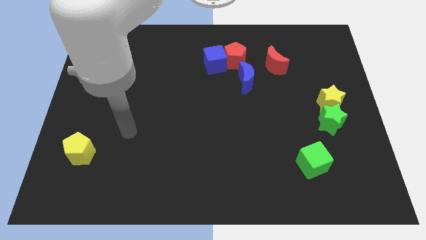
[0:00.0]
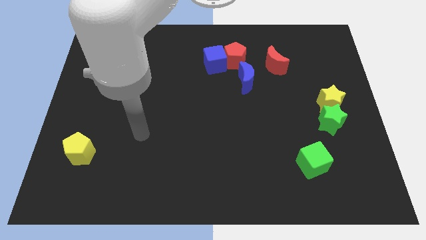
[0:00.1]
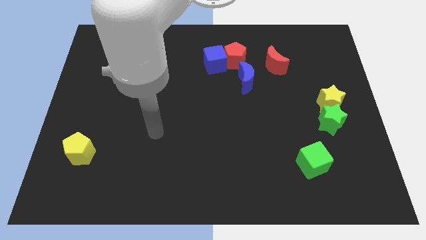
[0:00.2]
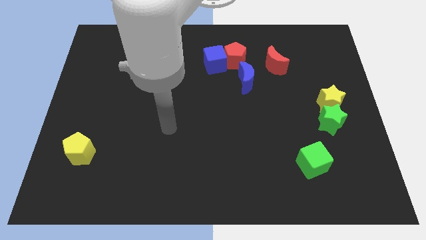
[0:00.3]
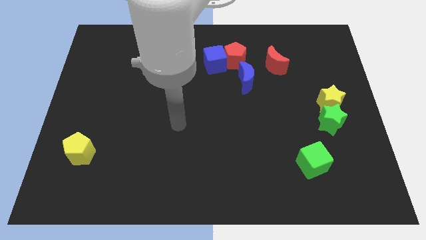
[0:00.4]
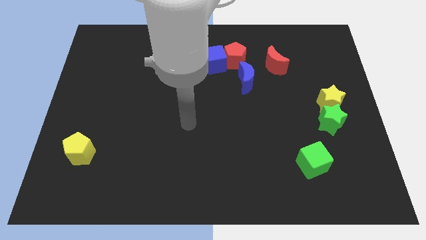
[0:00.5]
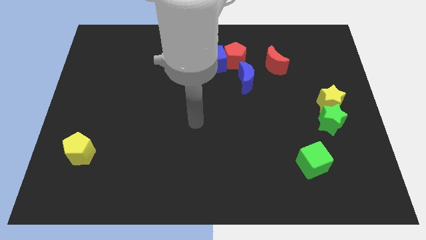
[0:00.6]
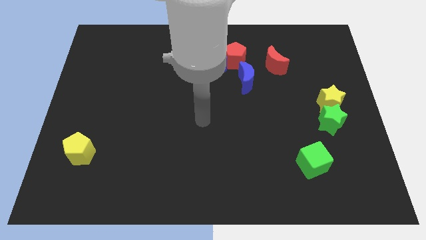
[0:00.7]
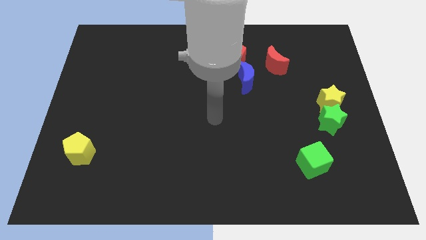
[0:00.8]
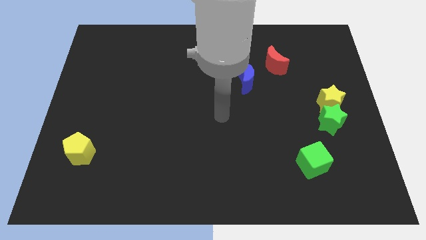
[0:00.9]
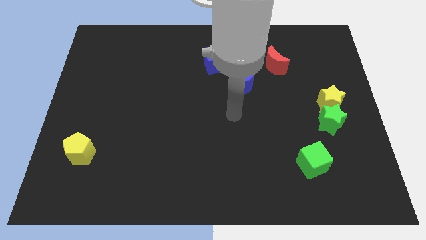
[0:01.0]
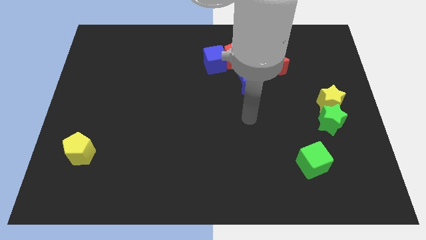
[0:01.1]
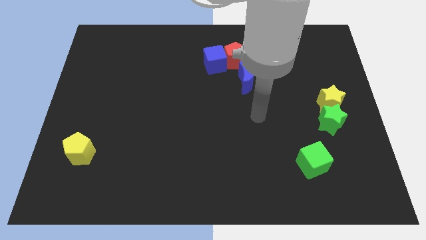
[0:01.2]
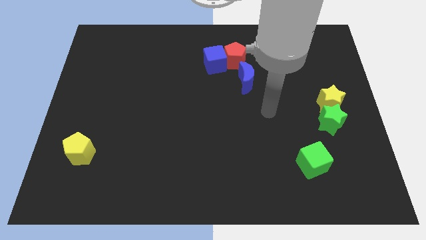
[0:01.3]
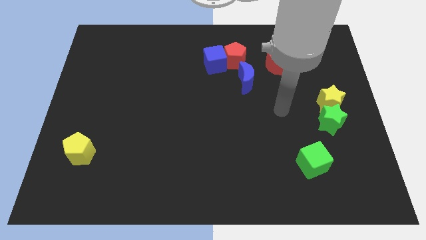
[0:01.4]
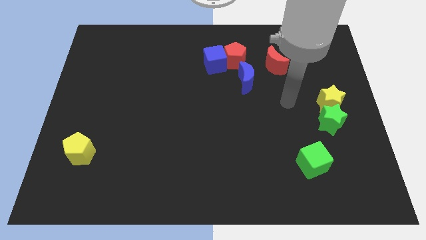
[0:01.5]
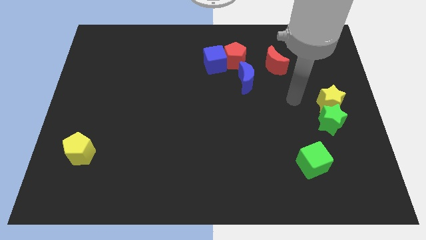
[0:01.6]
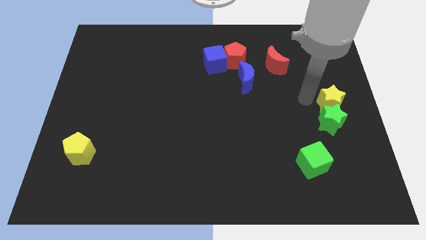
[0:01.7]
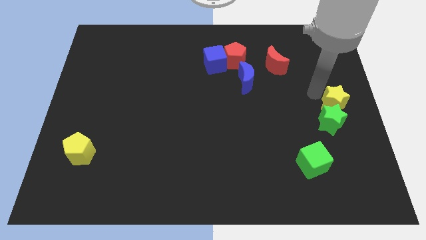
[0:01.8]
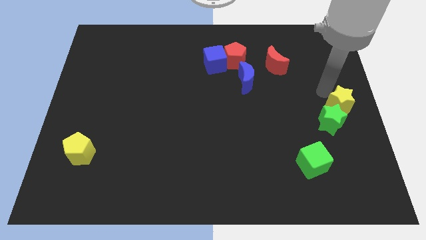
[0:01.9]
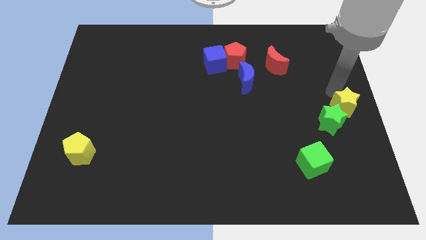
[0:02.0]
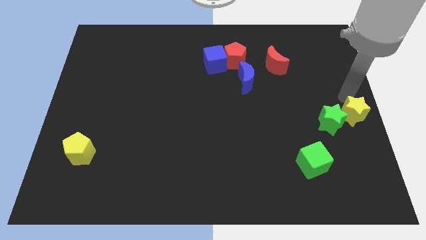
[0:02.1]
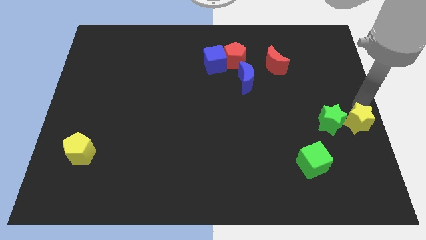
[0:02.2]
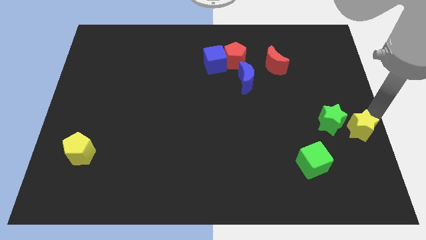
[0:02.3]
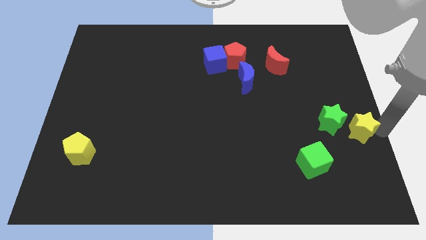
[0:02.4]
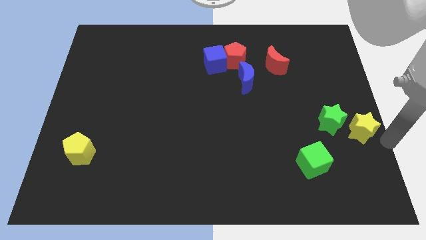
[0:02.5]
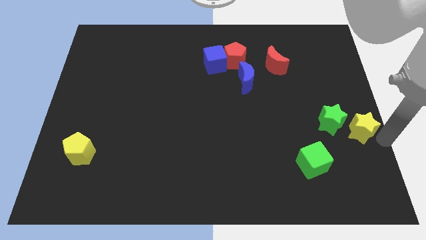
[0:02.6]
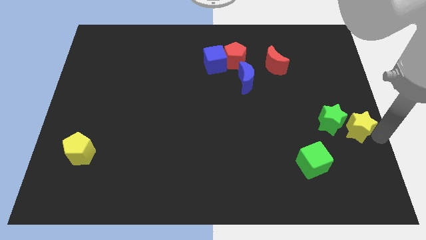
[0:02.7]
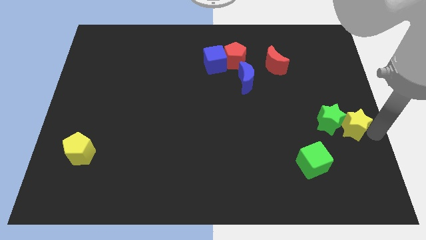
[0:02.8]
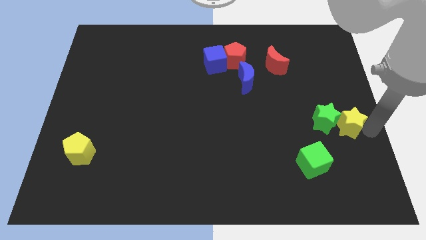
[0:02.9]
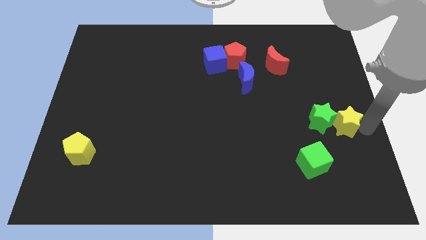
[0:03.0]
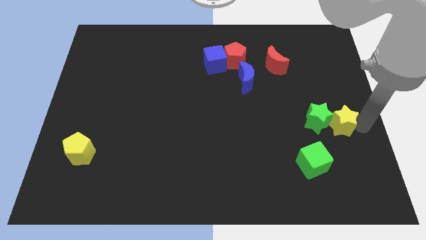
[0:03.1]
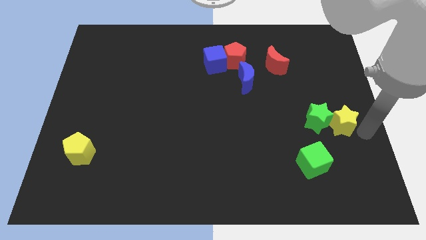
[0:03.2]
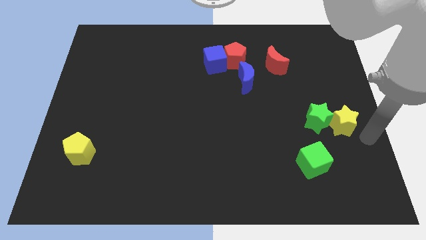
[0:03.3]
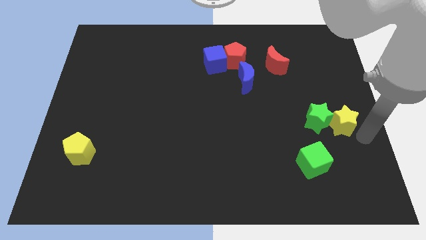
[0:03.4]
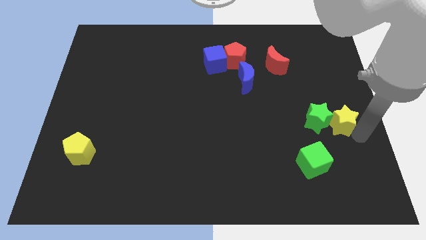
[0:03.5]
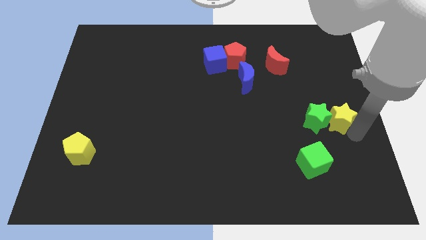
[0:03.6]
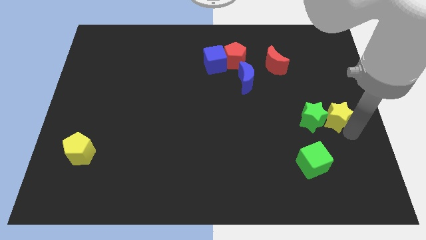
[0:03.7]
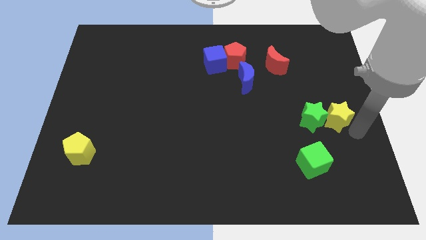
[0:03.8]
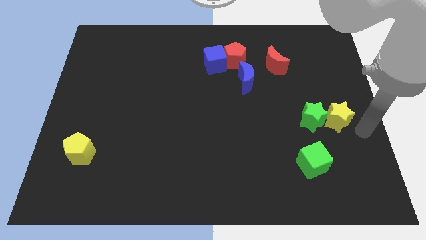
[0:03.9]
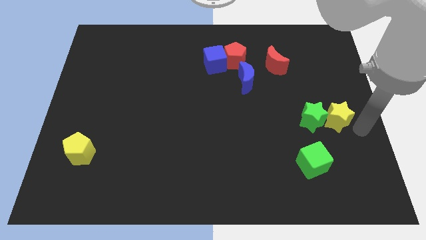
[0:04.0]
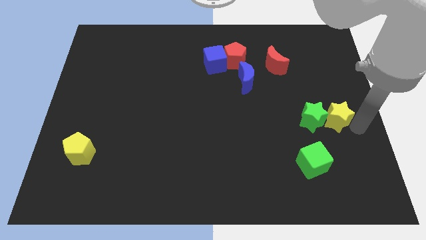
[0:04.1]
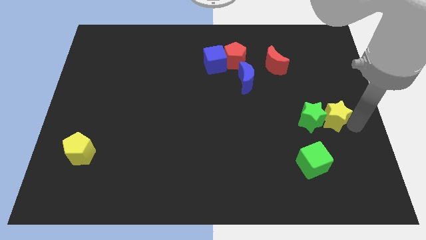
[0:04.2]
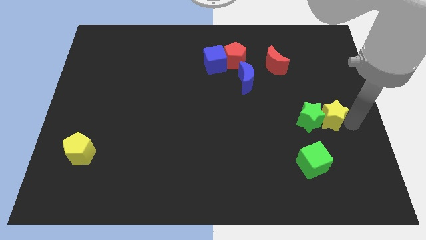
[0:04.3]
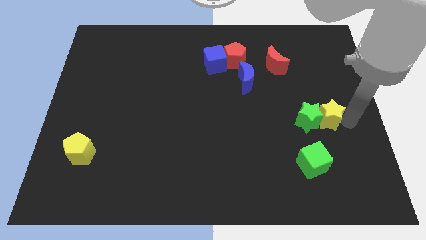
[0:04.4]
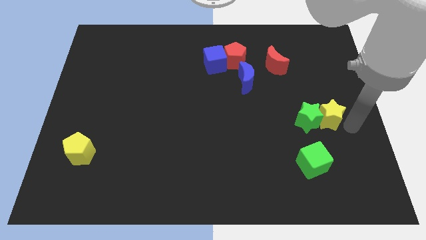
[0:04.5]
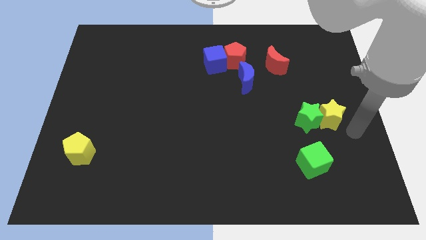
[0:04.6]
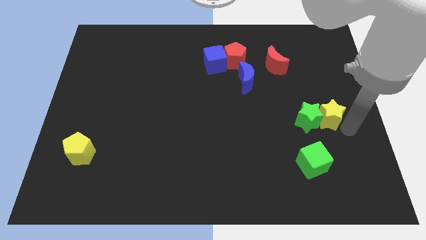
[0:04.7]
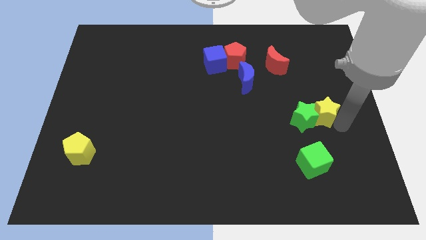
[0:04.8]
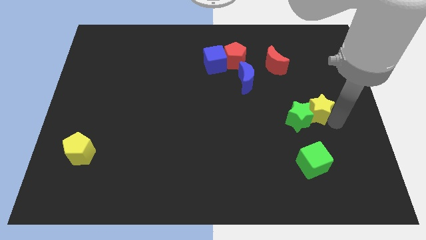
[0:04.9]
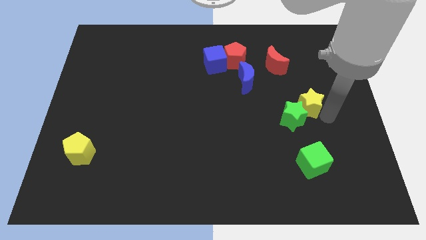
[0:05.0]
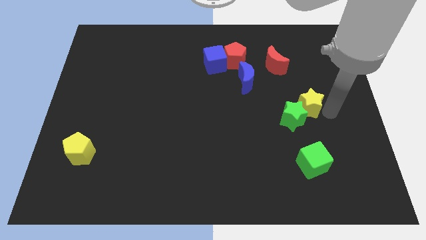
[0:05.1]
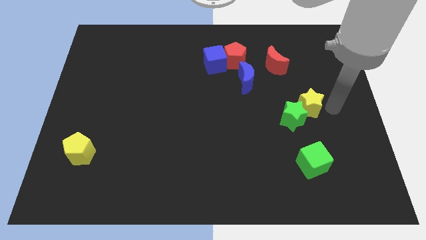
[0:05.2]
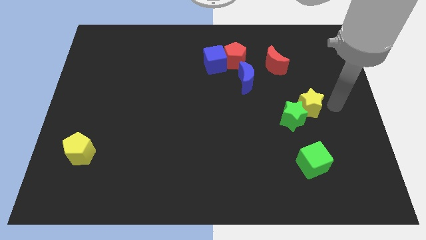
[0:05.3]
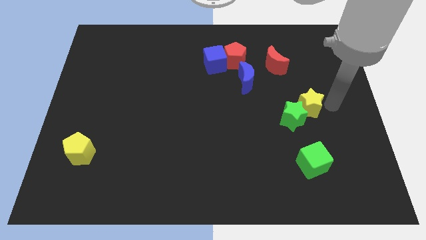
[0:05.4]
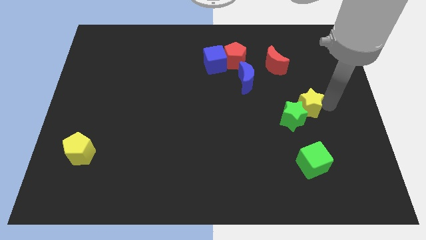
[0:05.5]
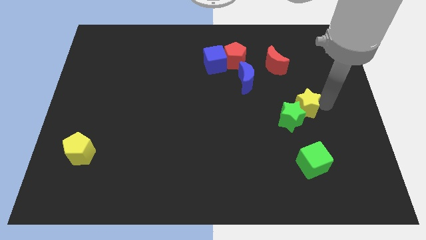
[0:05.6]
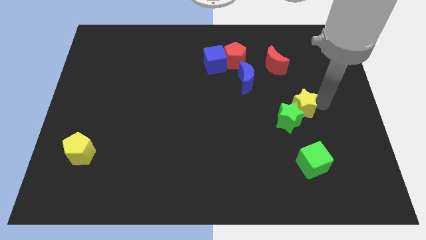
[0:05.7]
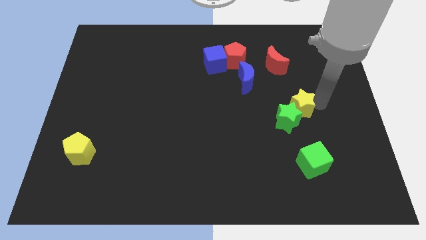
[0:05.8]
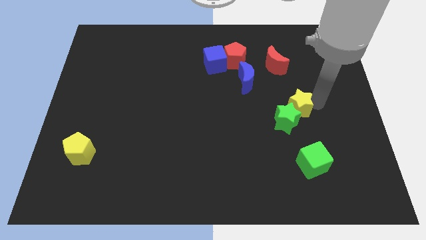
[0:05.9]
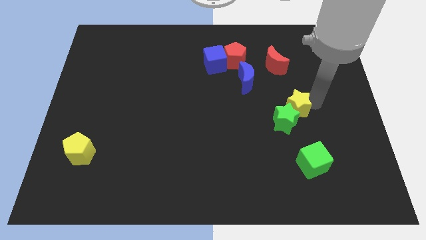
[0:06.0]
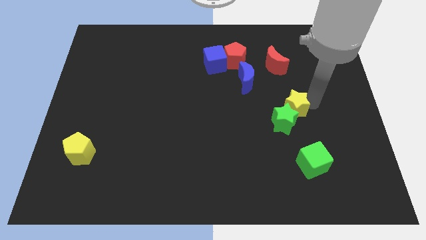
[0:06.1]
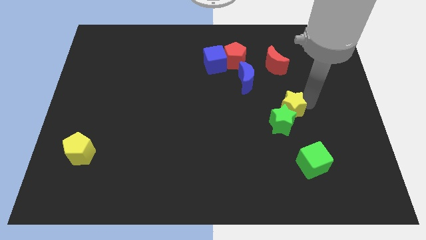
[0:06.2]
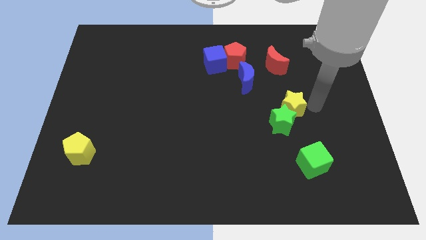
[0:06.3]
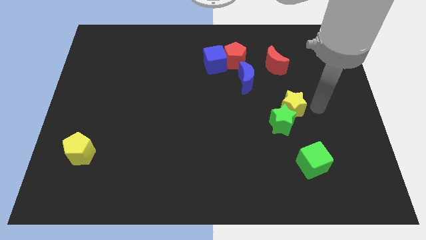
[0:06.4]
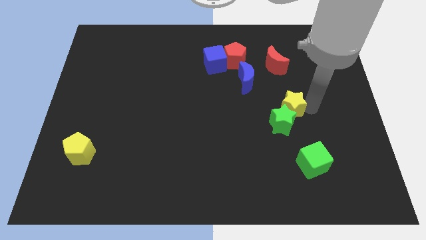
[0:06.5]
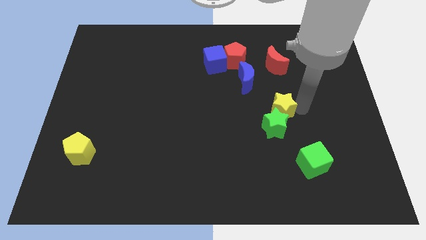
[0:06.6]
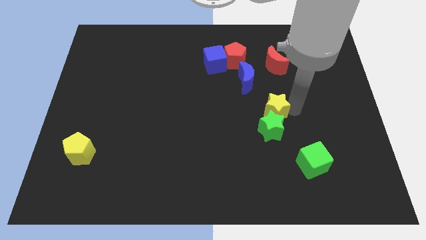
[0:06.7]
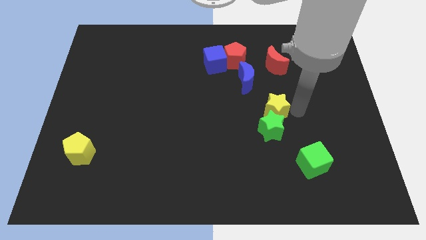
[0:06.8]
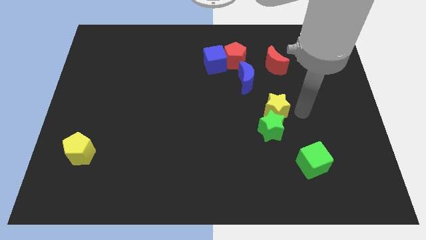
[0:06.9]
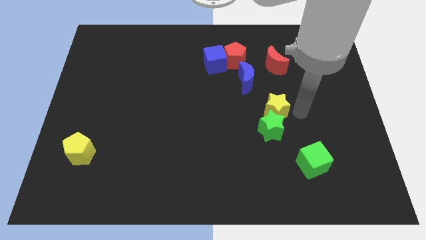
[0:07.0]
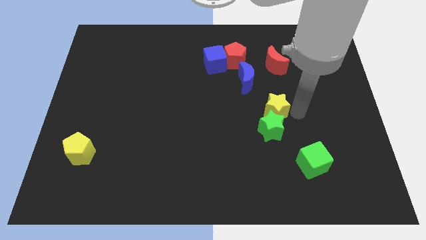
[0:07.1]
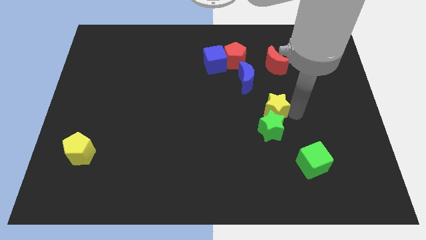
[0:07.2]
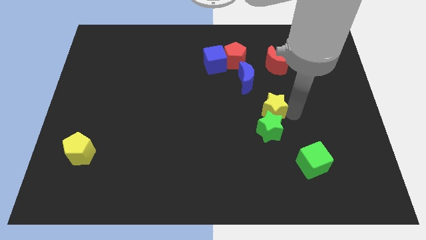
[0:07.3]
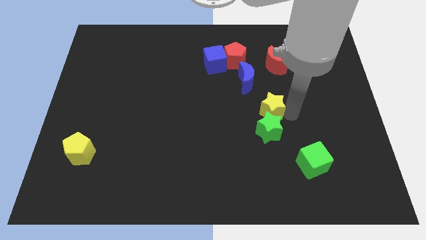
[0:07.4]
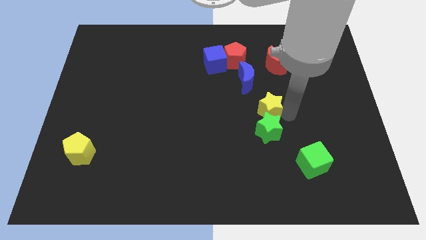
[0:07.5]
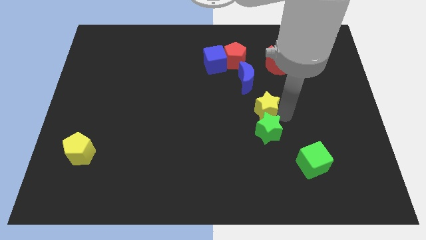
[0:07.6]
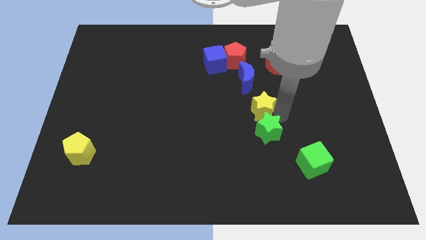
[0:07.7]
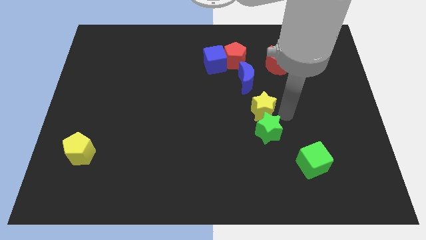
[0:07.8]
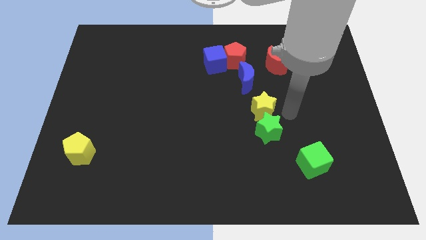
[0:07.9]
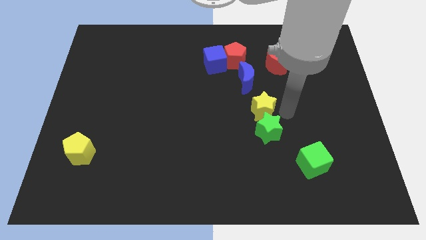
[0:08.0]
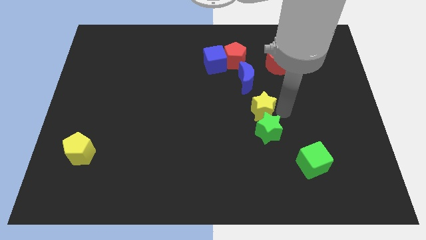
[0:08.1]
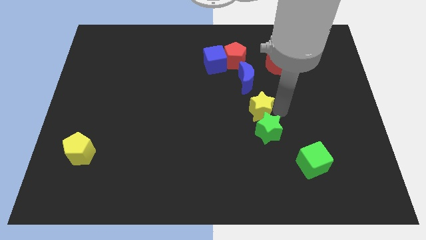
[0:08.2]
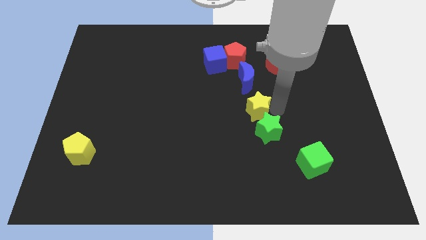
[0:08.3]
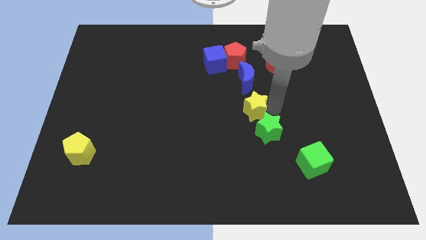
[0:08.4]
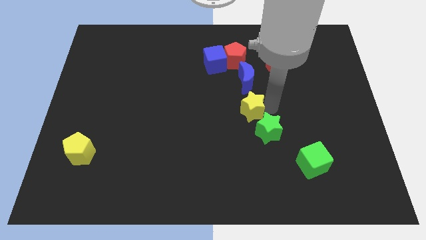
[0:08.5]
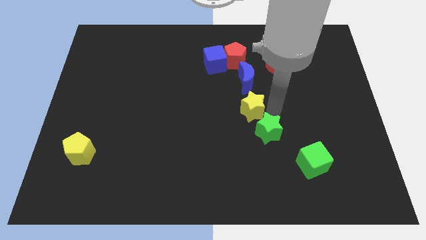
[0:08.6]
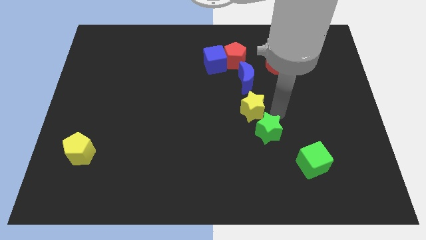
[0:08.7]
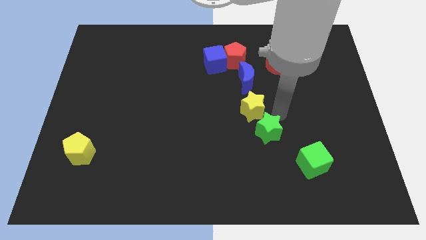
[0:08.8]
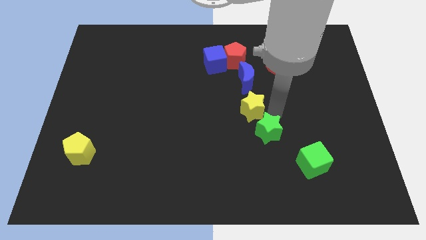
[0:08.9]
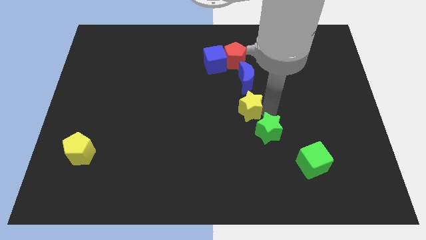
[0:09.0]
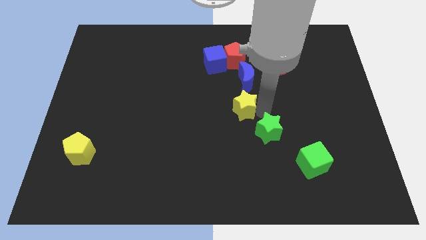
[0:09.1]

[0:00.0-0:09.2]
slide the yellow star to the left
